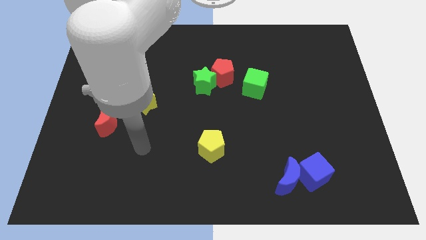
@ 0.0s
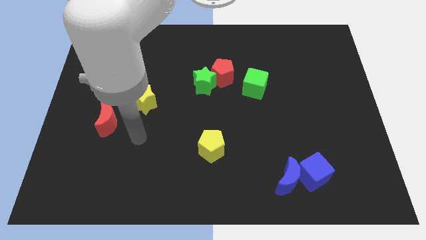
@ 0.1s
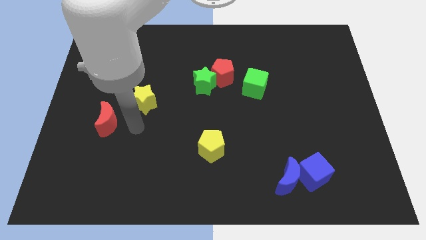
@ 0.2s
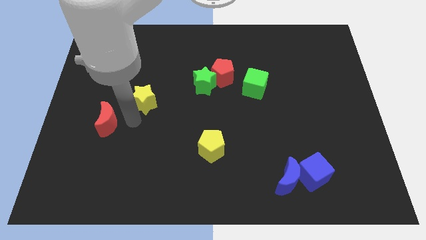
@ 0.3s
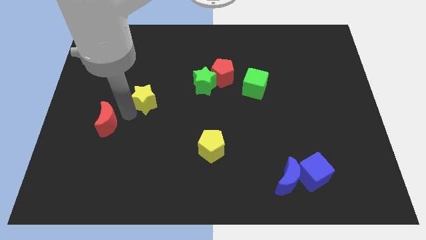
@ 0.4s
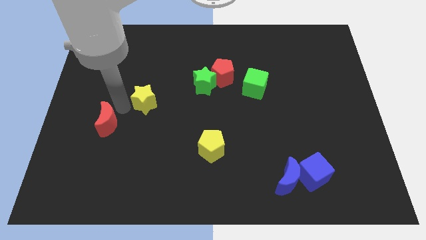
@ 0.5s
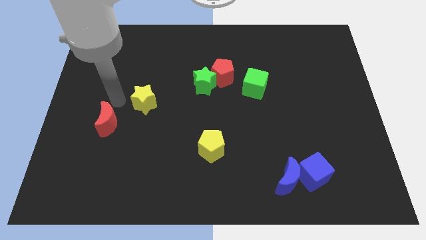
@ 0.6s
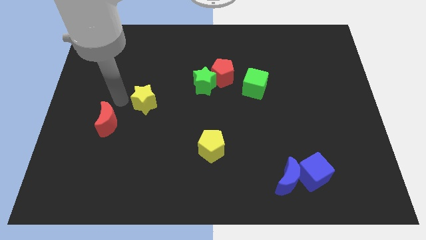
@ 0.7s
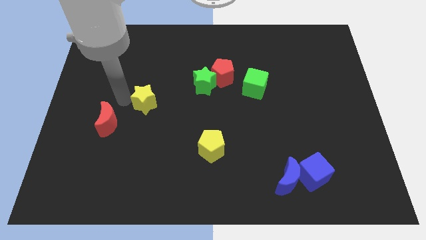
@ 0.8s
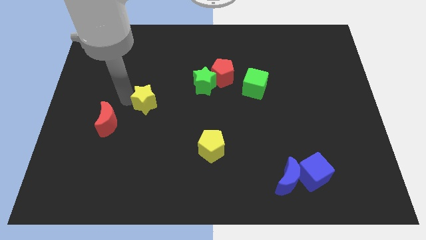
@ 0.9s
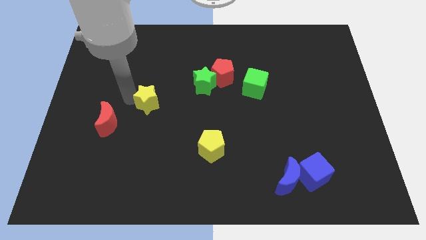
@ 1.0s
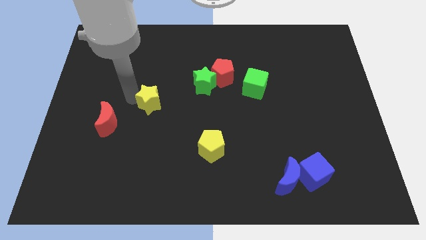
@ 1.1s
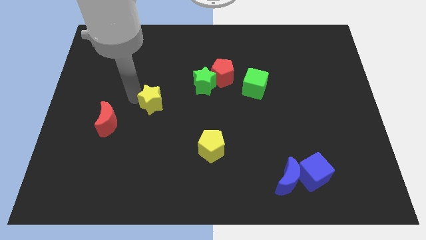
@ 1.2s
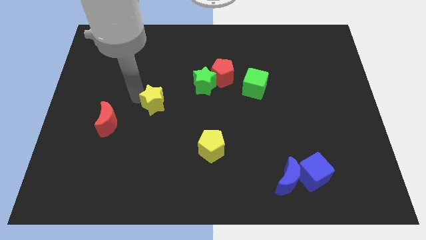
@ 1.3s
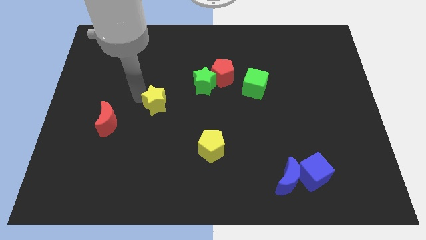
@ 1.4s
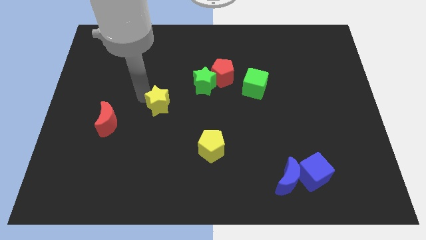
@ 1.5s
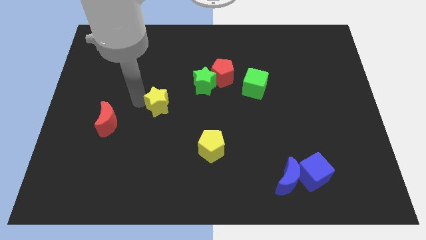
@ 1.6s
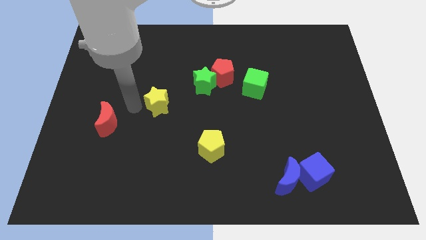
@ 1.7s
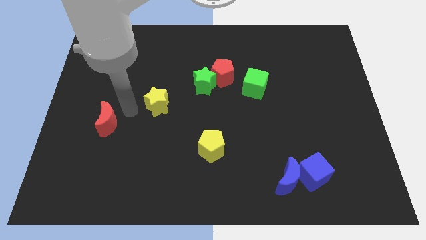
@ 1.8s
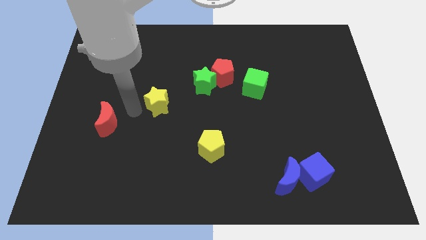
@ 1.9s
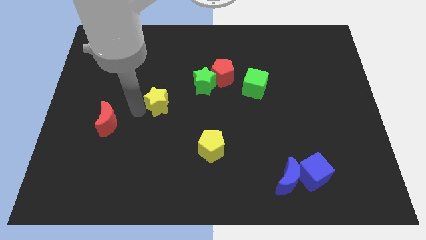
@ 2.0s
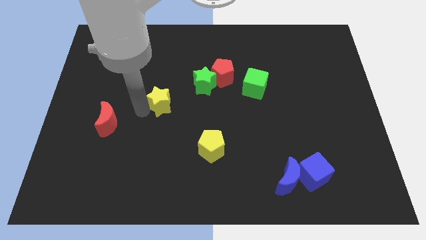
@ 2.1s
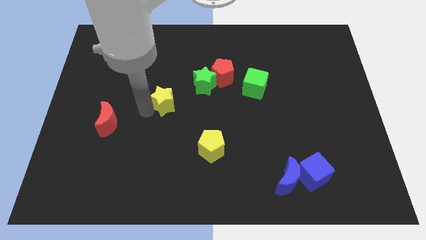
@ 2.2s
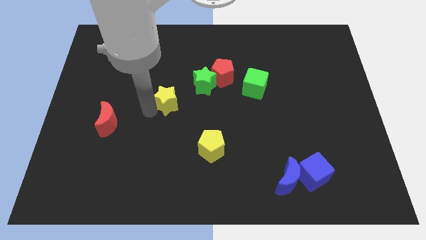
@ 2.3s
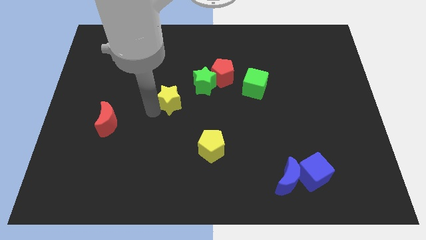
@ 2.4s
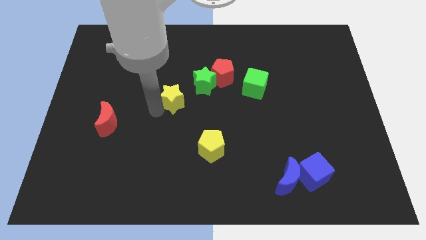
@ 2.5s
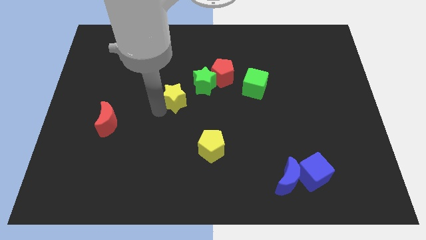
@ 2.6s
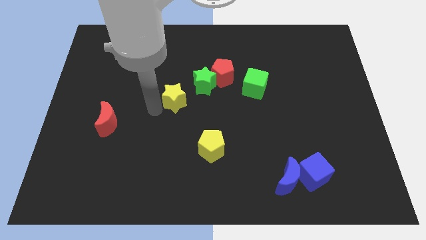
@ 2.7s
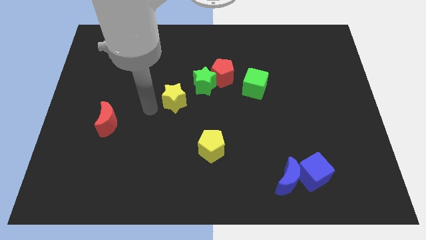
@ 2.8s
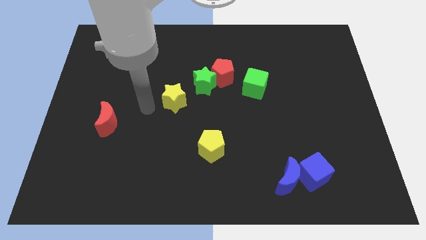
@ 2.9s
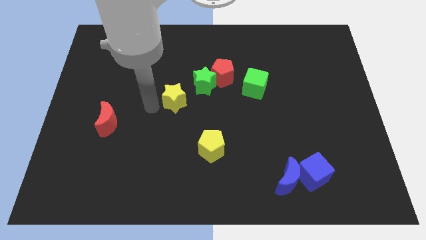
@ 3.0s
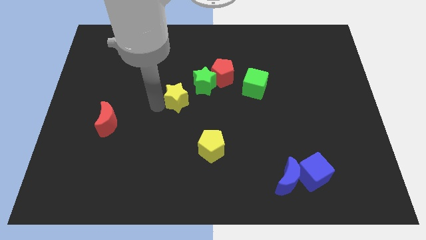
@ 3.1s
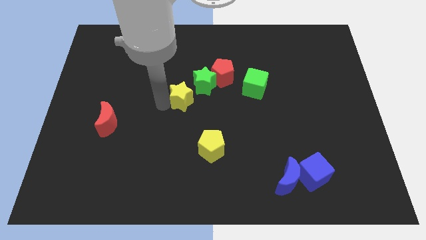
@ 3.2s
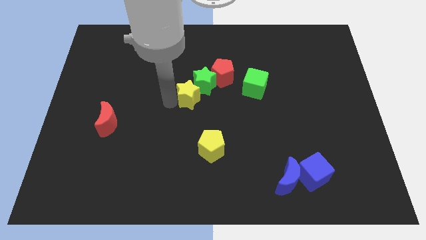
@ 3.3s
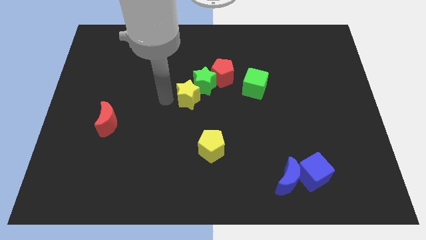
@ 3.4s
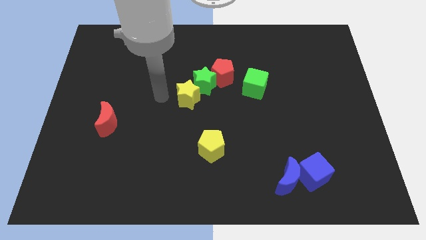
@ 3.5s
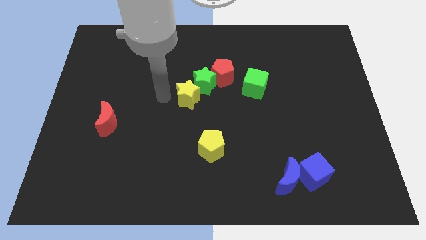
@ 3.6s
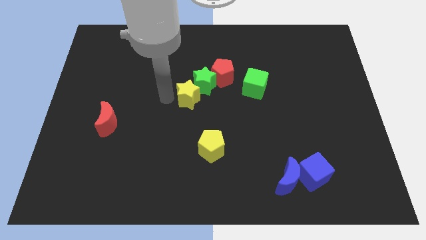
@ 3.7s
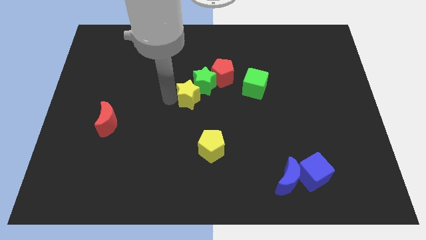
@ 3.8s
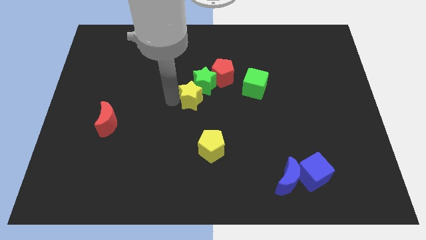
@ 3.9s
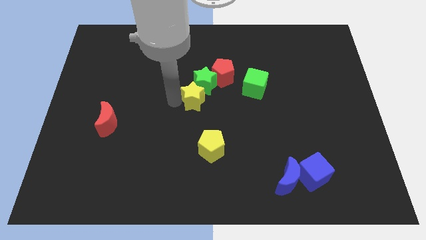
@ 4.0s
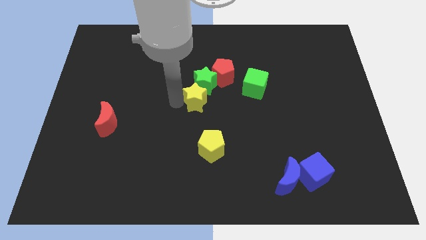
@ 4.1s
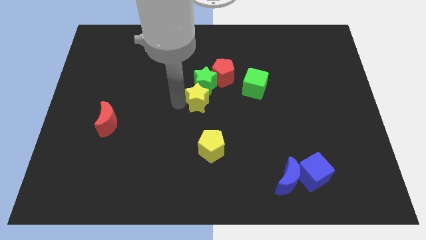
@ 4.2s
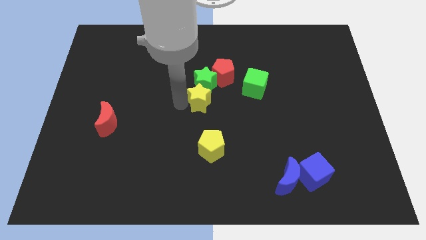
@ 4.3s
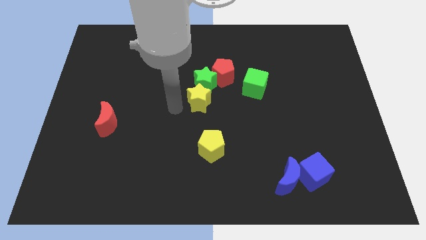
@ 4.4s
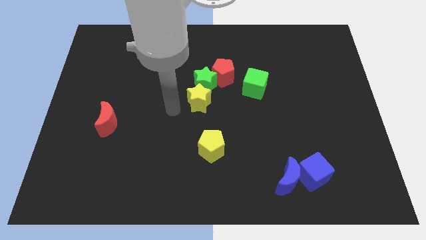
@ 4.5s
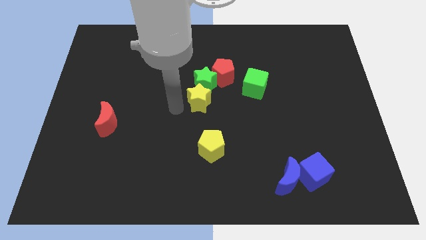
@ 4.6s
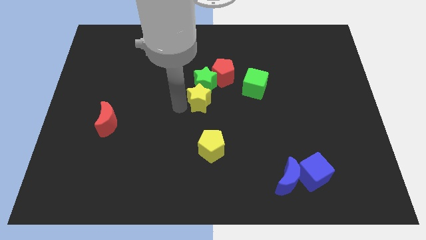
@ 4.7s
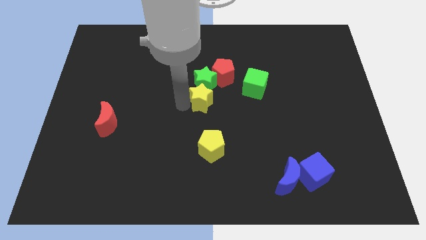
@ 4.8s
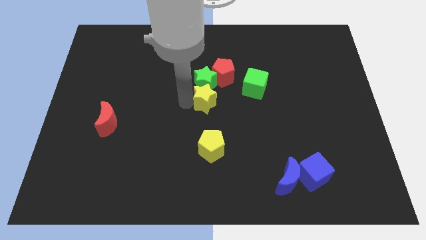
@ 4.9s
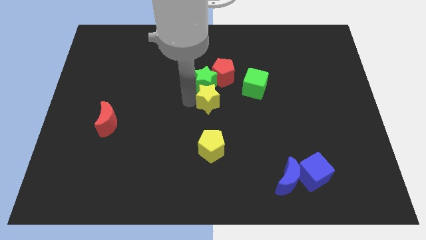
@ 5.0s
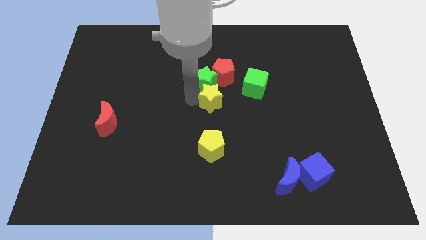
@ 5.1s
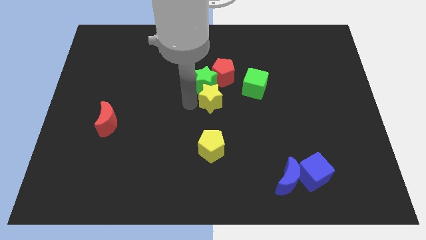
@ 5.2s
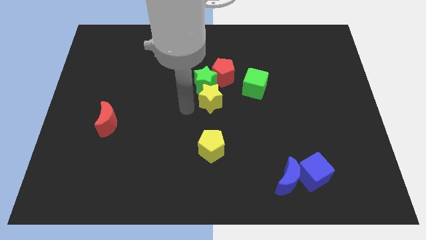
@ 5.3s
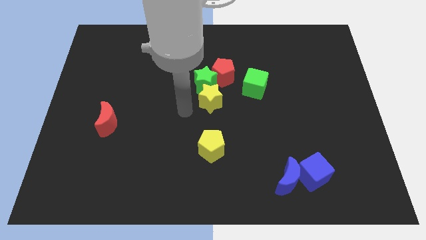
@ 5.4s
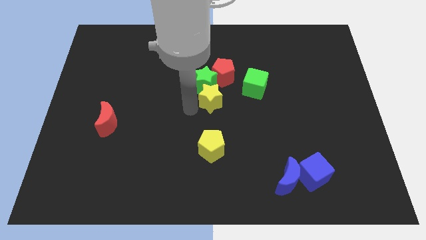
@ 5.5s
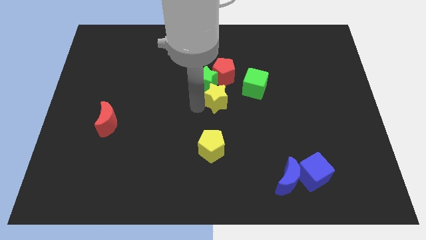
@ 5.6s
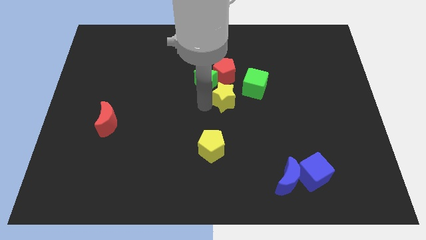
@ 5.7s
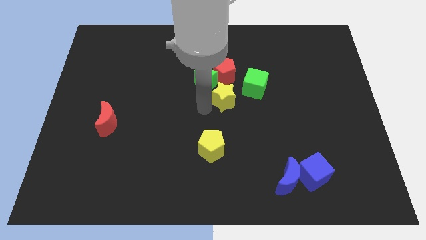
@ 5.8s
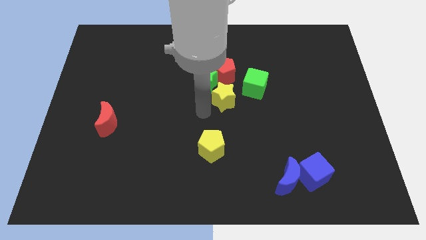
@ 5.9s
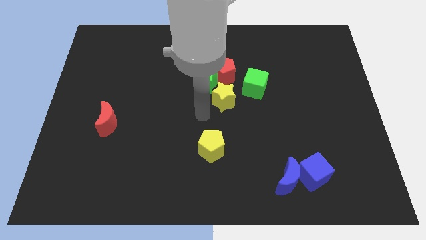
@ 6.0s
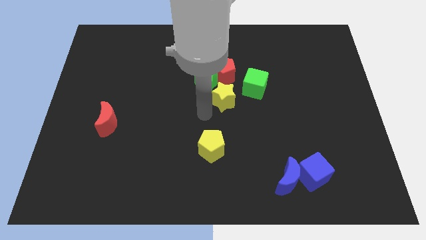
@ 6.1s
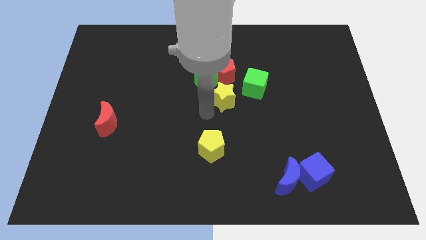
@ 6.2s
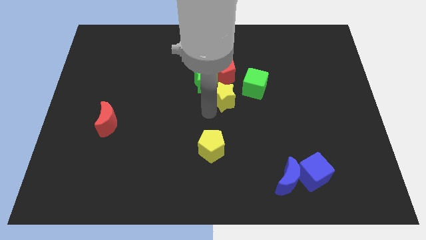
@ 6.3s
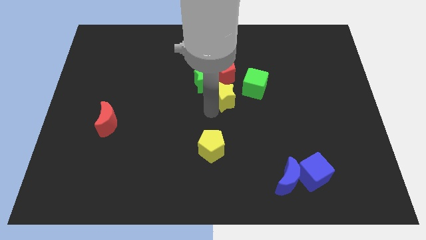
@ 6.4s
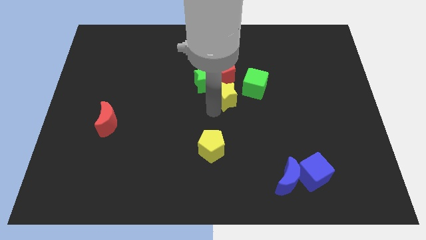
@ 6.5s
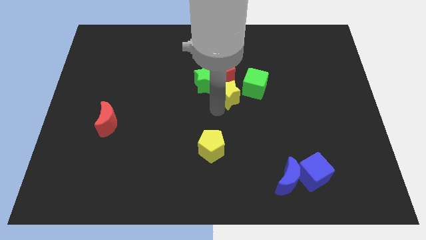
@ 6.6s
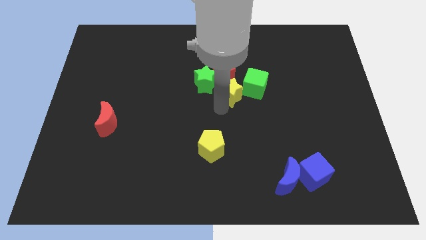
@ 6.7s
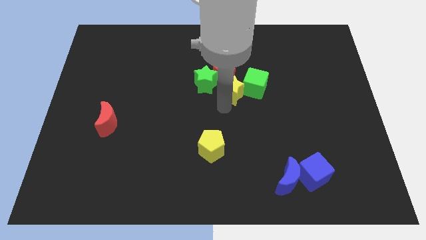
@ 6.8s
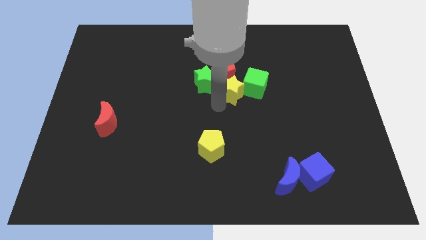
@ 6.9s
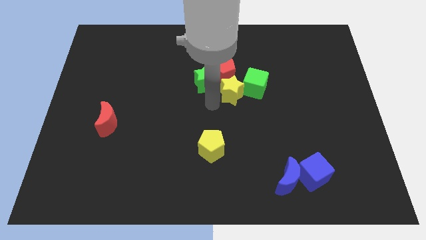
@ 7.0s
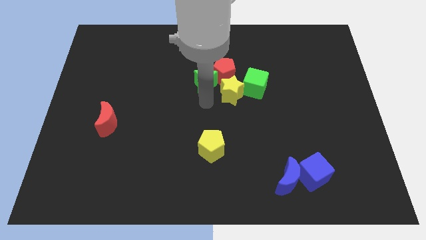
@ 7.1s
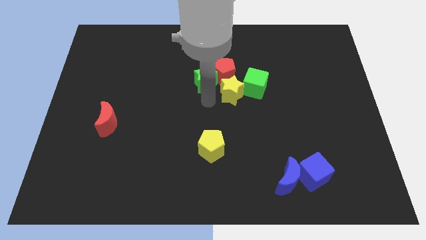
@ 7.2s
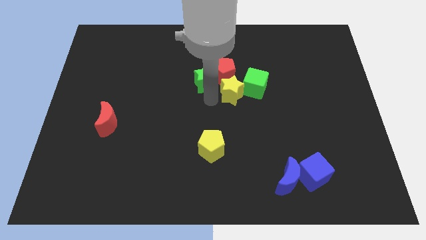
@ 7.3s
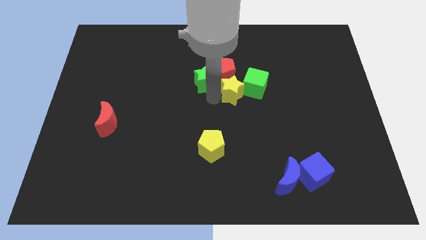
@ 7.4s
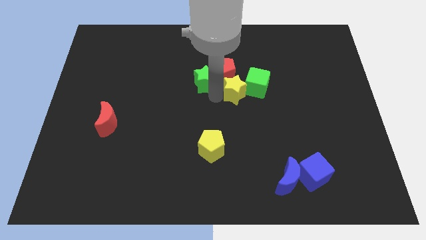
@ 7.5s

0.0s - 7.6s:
put the yellow star next to the green cube
